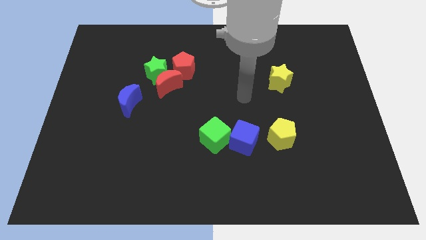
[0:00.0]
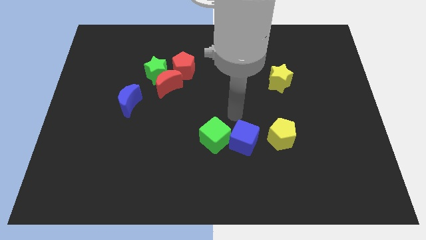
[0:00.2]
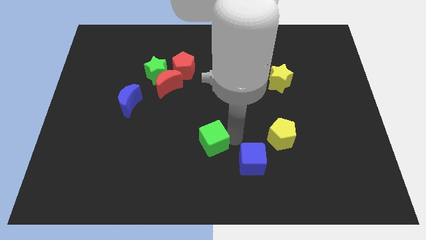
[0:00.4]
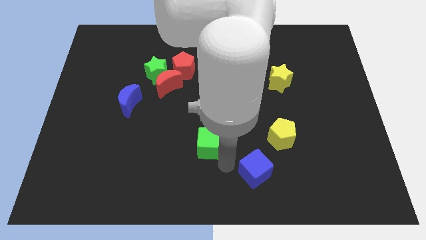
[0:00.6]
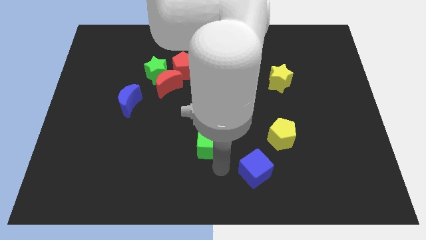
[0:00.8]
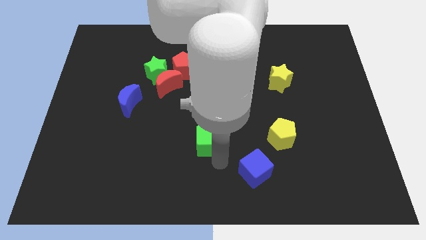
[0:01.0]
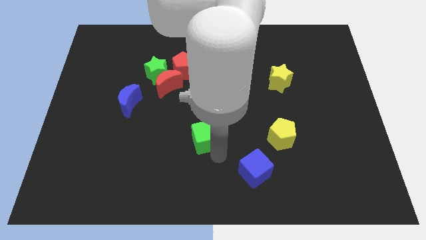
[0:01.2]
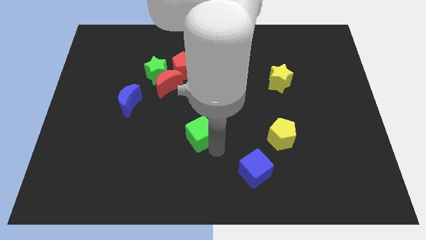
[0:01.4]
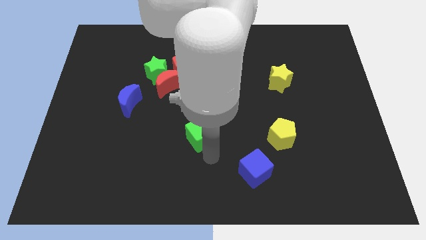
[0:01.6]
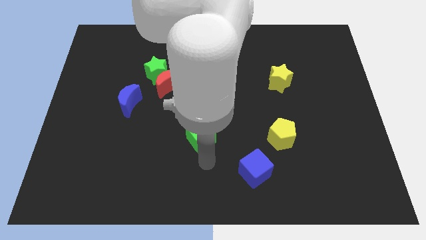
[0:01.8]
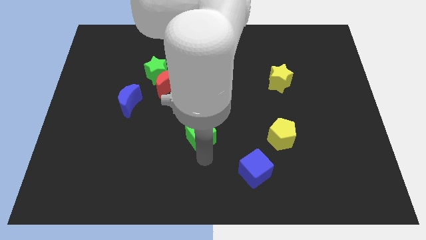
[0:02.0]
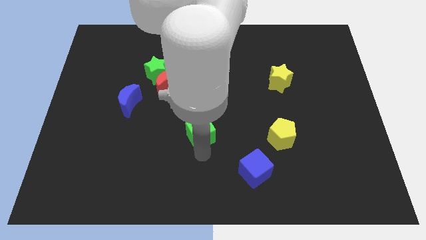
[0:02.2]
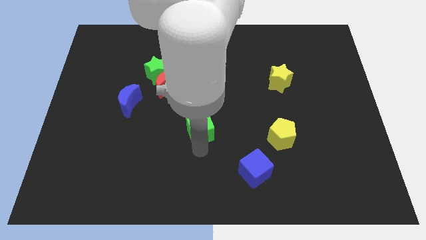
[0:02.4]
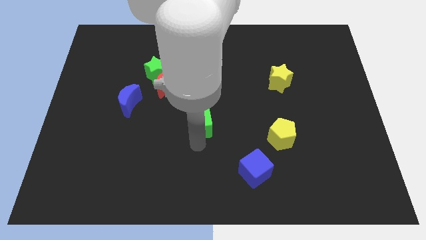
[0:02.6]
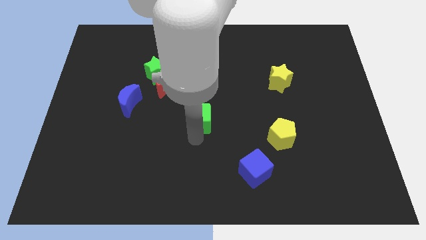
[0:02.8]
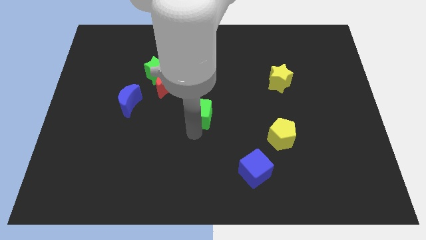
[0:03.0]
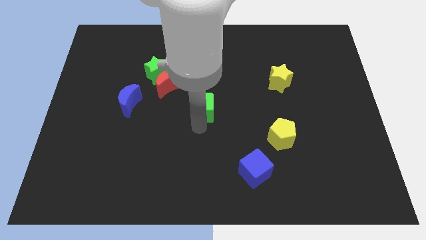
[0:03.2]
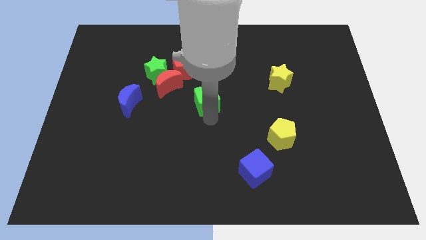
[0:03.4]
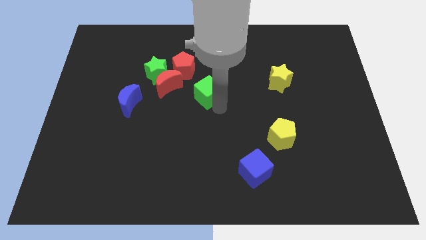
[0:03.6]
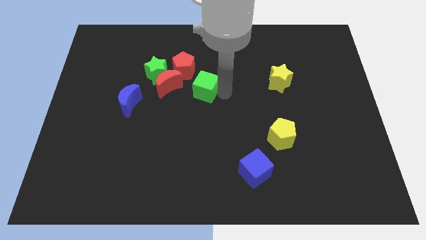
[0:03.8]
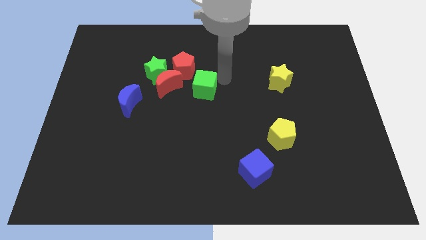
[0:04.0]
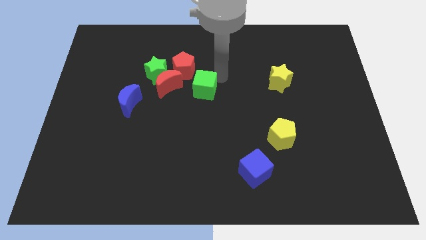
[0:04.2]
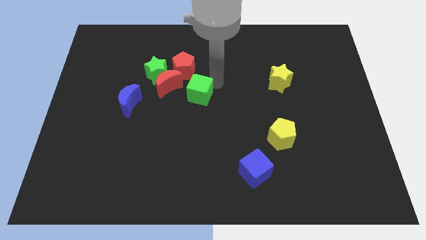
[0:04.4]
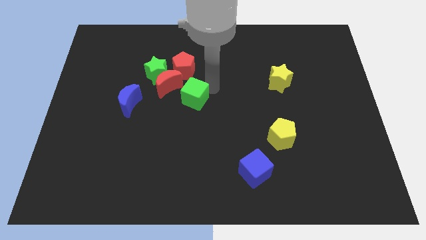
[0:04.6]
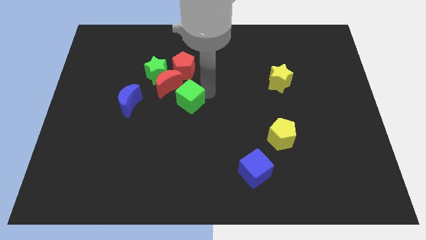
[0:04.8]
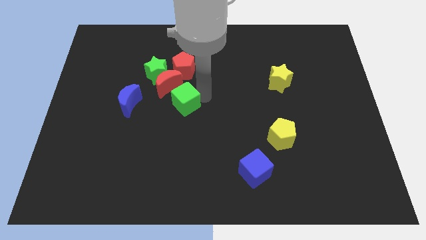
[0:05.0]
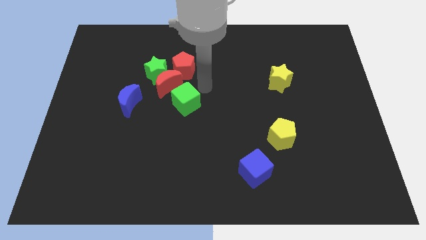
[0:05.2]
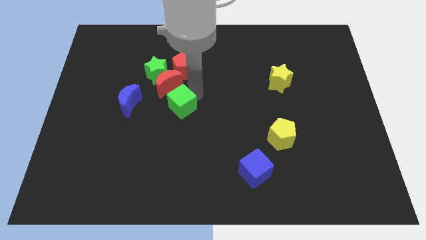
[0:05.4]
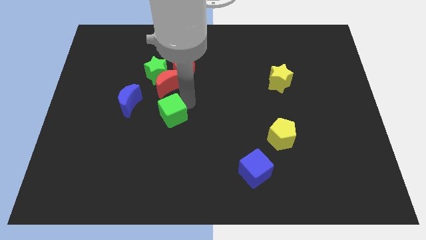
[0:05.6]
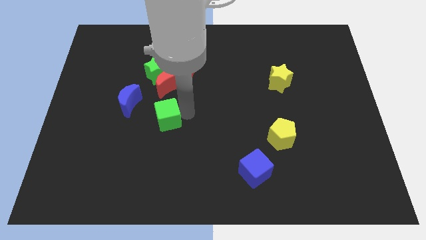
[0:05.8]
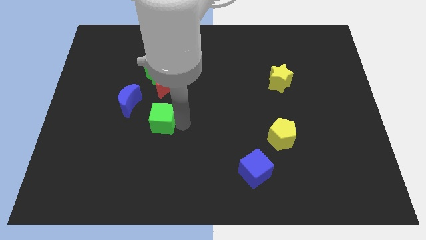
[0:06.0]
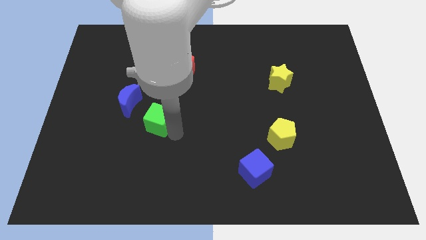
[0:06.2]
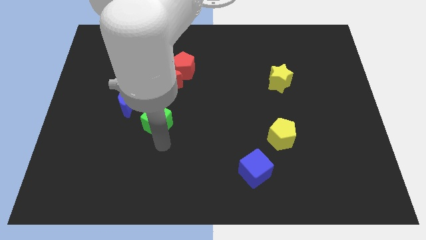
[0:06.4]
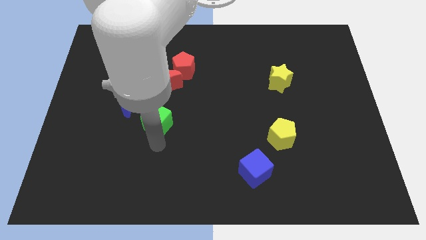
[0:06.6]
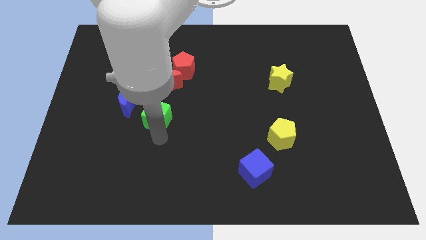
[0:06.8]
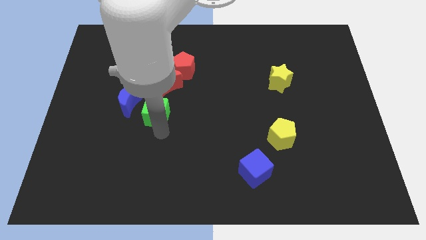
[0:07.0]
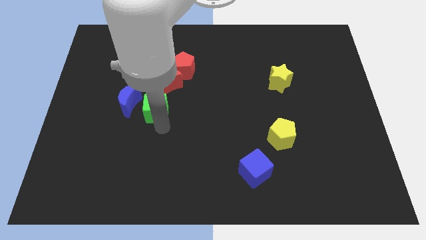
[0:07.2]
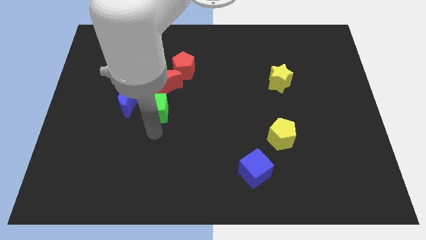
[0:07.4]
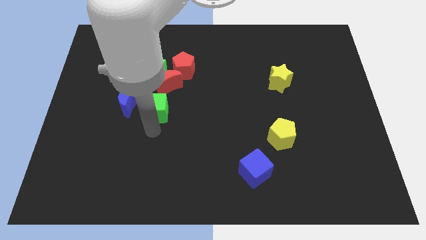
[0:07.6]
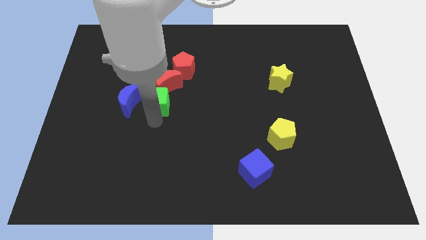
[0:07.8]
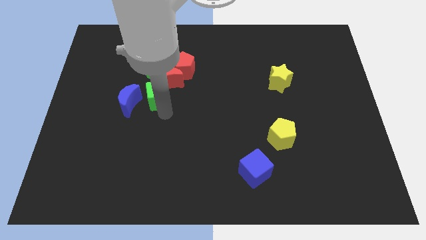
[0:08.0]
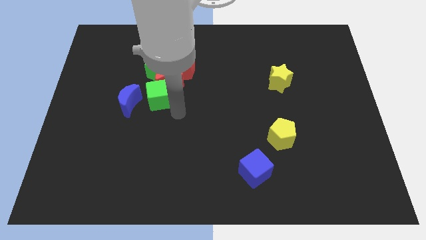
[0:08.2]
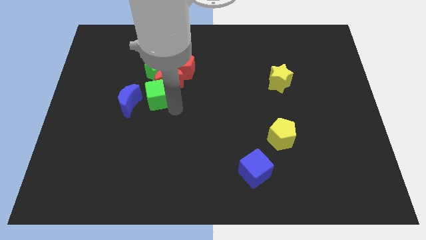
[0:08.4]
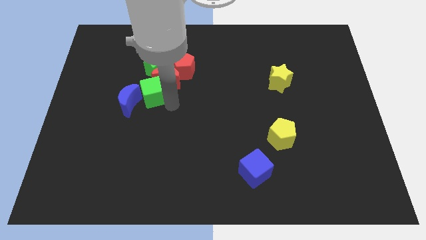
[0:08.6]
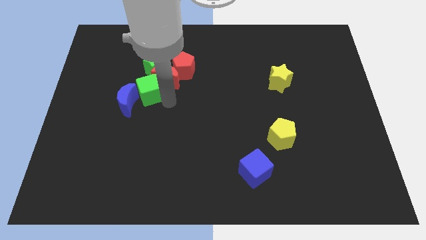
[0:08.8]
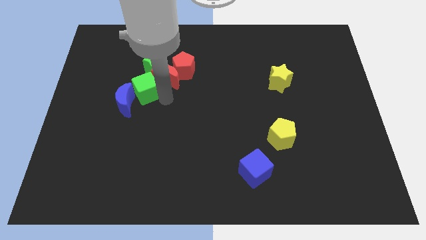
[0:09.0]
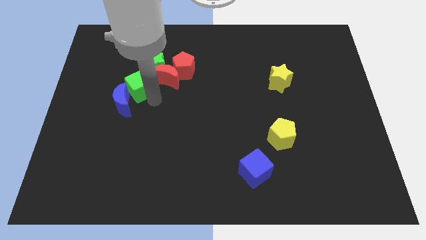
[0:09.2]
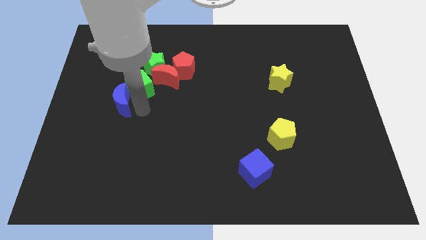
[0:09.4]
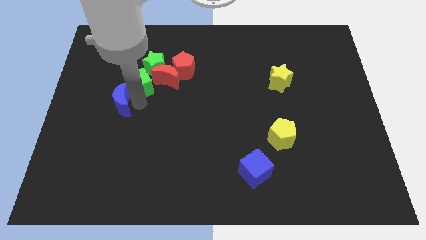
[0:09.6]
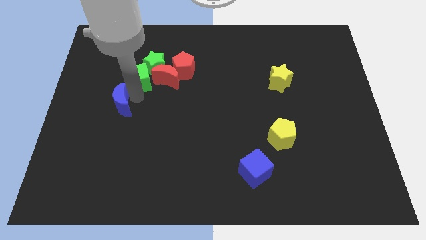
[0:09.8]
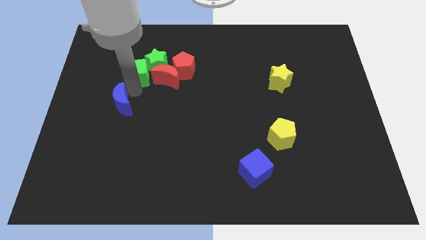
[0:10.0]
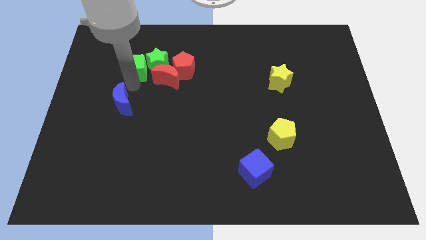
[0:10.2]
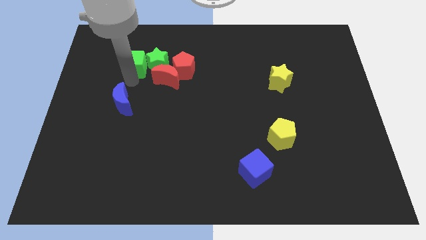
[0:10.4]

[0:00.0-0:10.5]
slide the green cube diagonally up and to the left of the green star

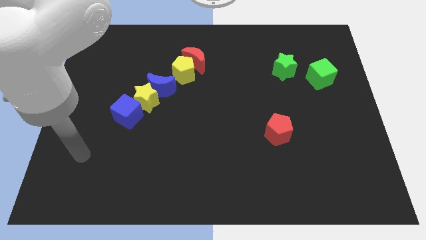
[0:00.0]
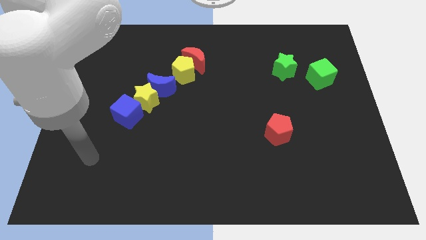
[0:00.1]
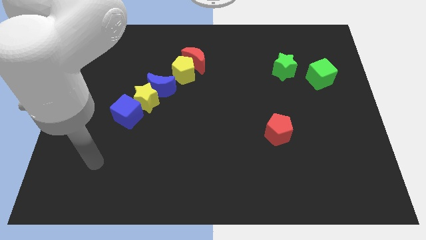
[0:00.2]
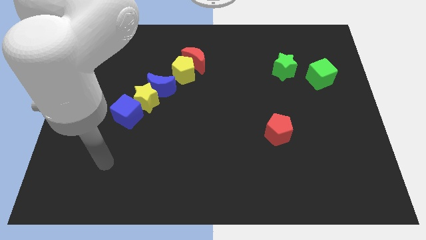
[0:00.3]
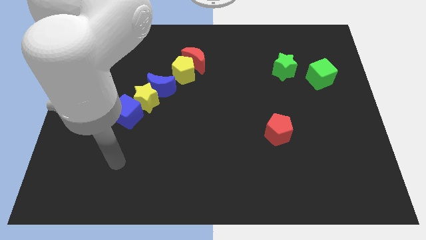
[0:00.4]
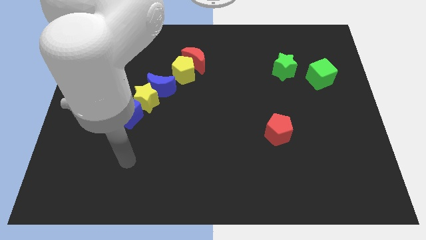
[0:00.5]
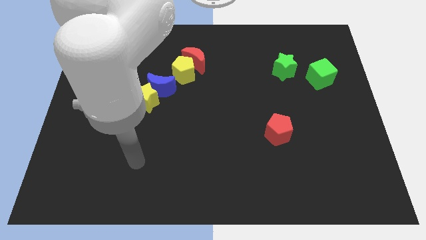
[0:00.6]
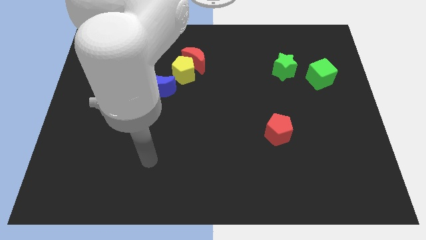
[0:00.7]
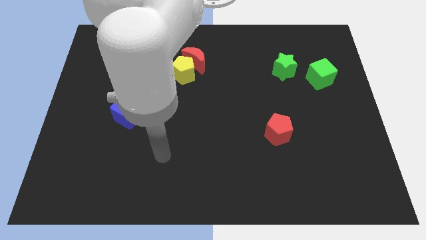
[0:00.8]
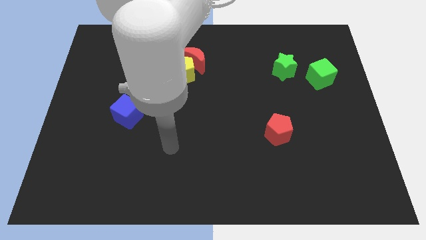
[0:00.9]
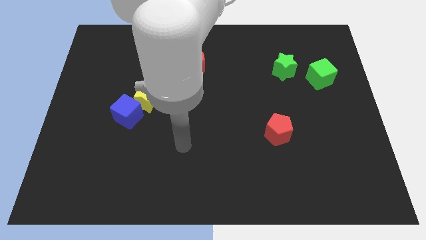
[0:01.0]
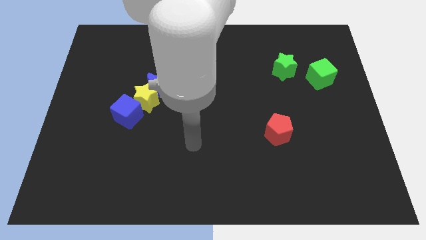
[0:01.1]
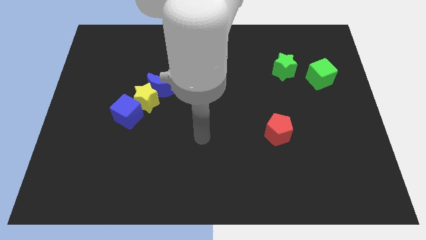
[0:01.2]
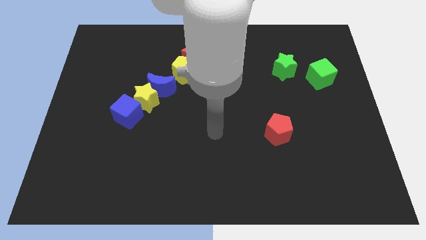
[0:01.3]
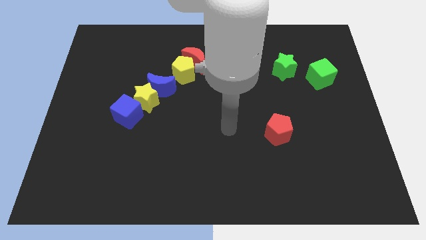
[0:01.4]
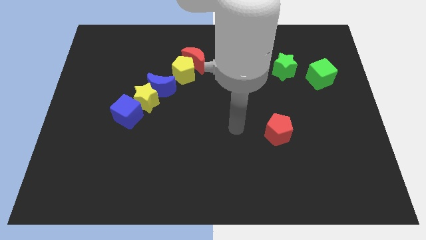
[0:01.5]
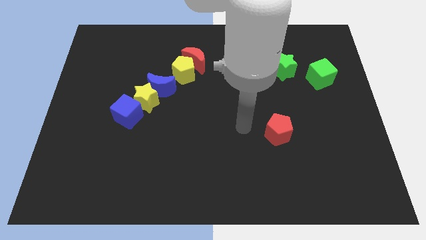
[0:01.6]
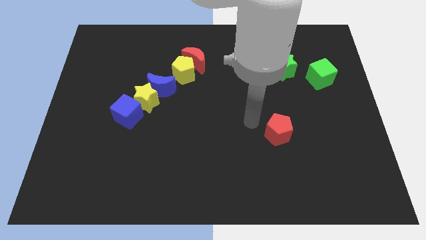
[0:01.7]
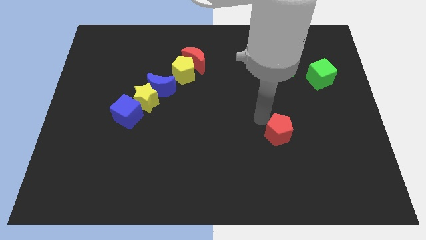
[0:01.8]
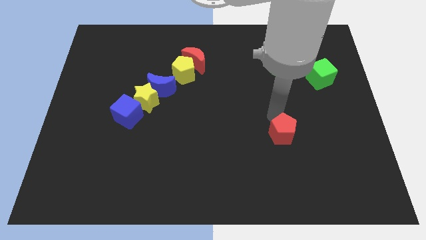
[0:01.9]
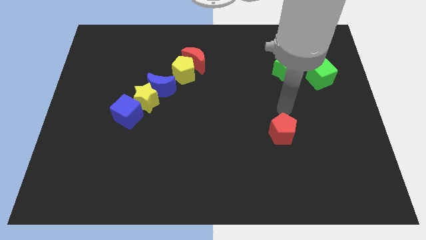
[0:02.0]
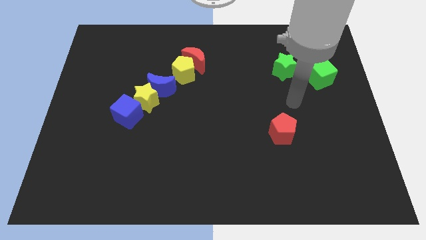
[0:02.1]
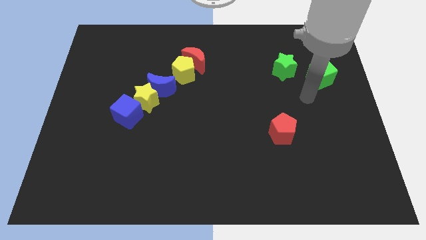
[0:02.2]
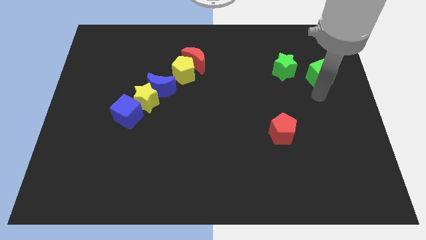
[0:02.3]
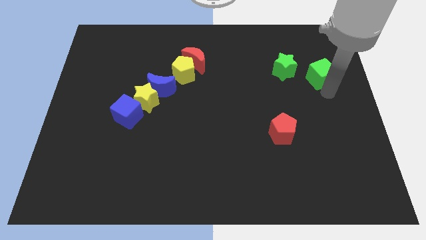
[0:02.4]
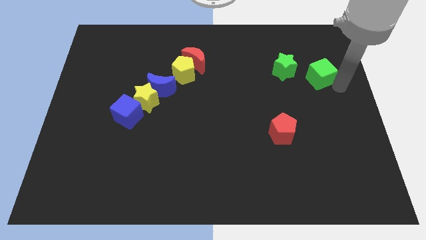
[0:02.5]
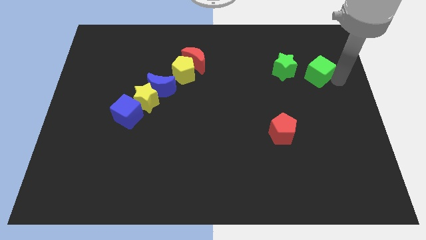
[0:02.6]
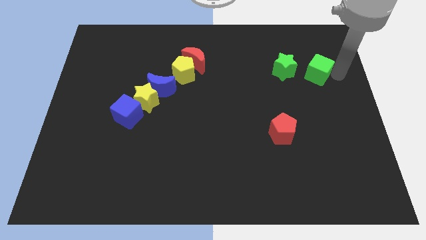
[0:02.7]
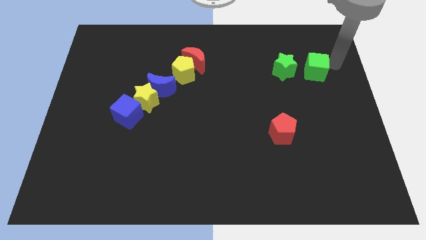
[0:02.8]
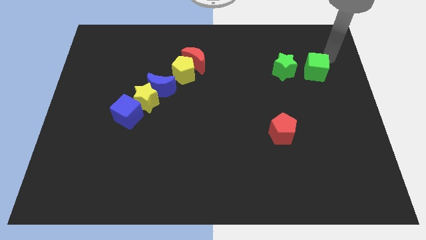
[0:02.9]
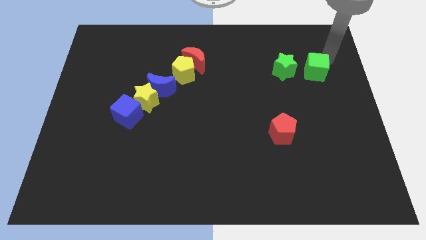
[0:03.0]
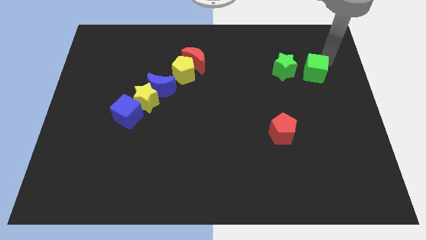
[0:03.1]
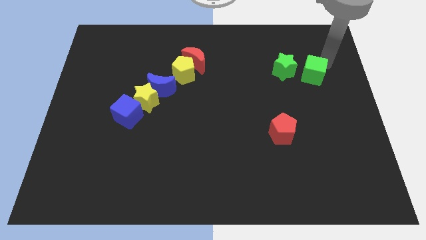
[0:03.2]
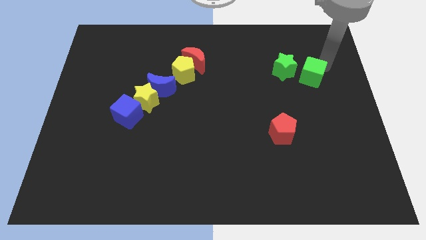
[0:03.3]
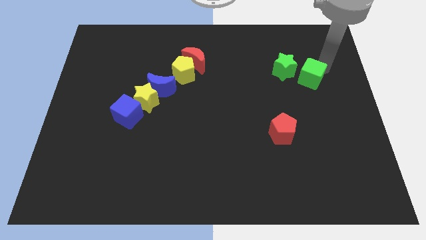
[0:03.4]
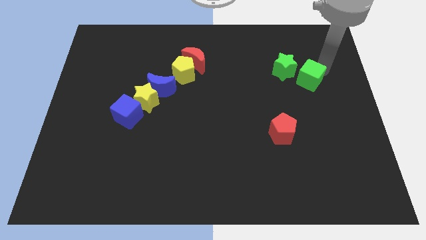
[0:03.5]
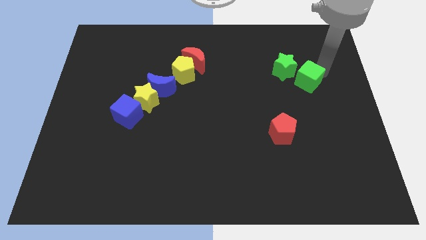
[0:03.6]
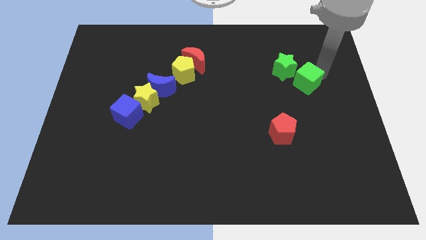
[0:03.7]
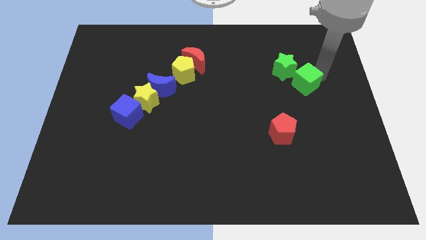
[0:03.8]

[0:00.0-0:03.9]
slide the green cube below the green star
